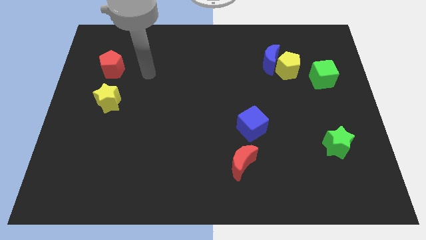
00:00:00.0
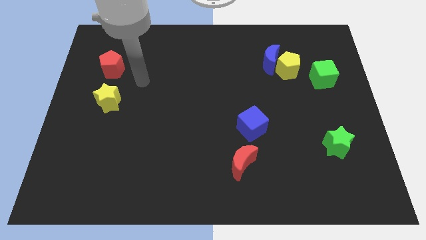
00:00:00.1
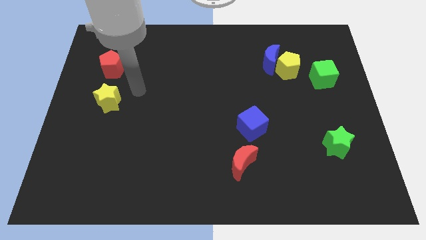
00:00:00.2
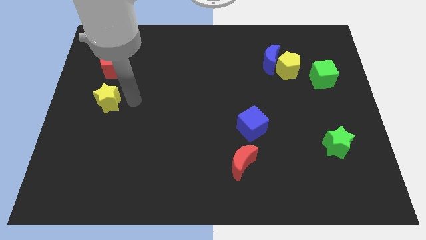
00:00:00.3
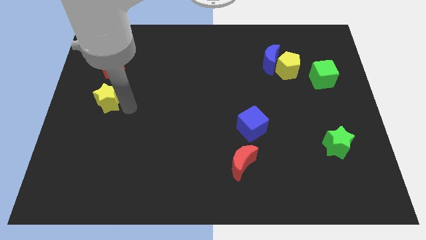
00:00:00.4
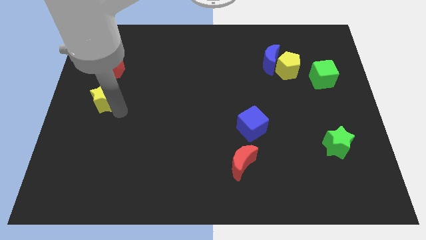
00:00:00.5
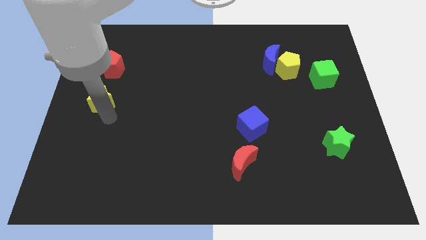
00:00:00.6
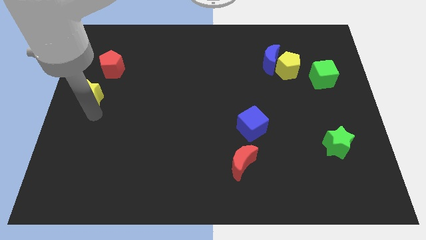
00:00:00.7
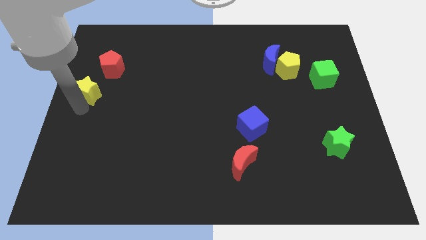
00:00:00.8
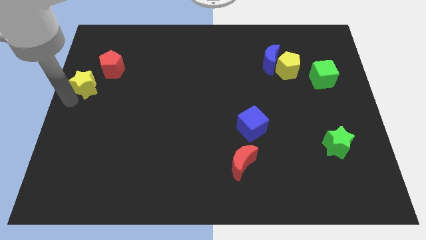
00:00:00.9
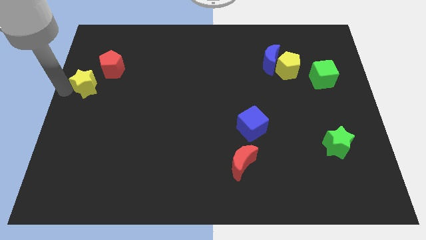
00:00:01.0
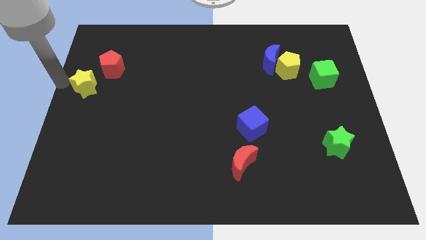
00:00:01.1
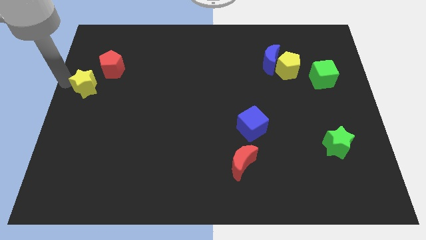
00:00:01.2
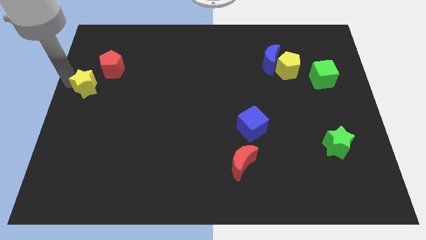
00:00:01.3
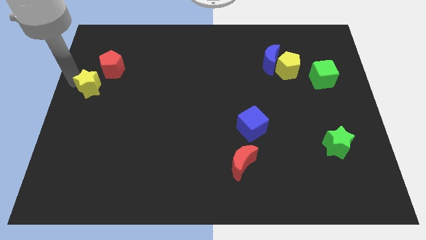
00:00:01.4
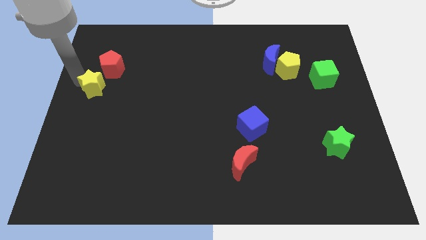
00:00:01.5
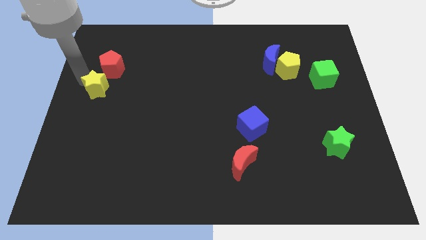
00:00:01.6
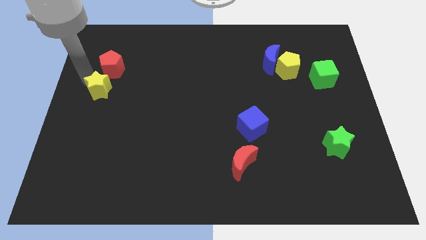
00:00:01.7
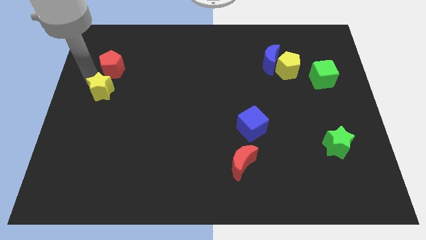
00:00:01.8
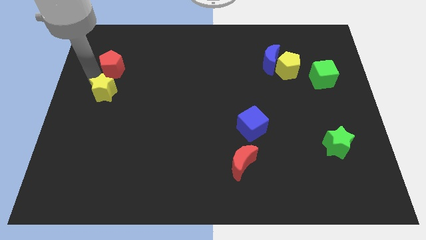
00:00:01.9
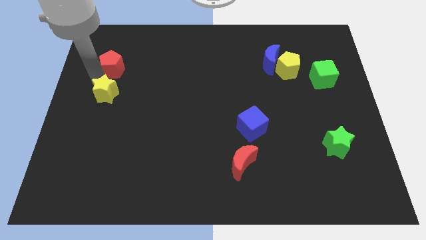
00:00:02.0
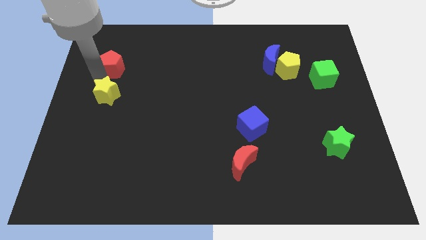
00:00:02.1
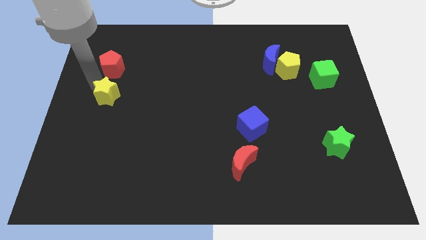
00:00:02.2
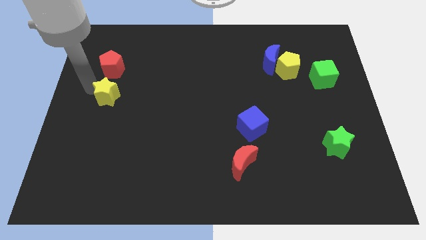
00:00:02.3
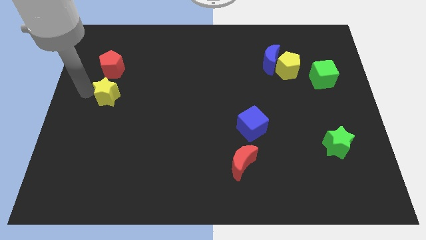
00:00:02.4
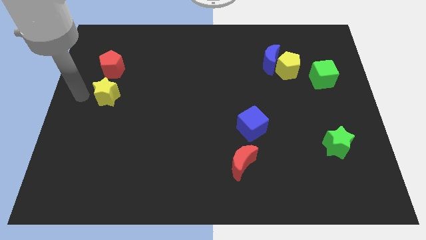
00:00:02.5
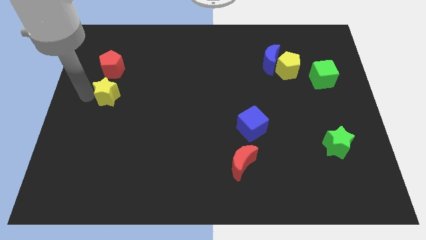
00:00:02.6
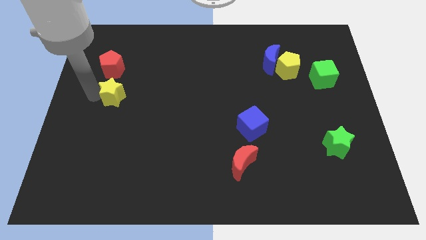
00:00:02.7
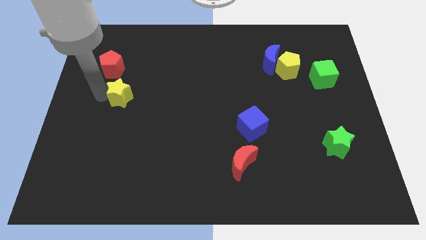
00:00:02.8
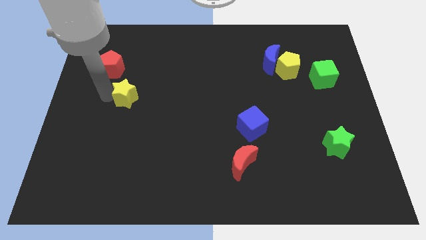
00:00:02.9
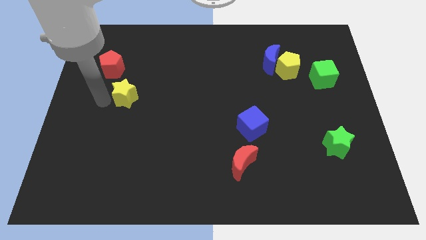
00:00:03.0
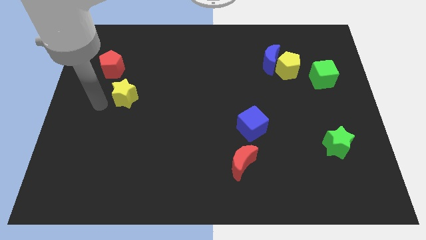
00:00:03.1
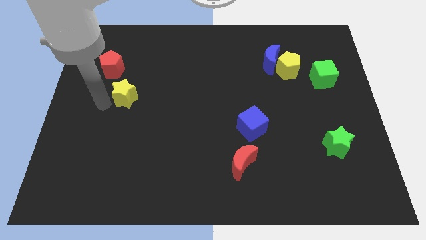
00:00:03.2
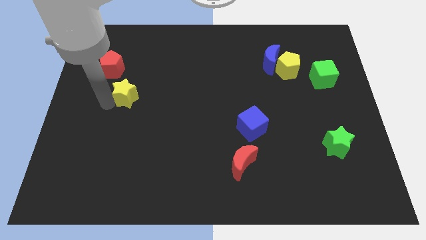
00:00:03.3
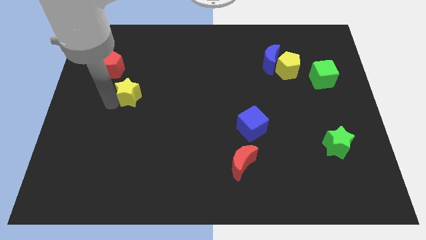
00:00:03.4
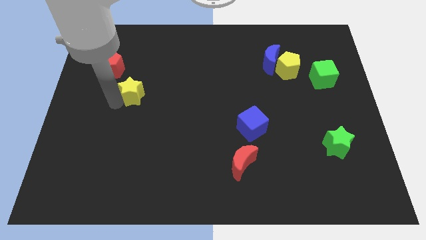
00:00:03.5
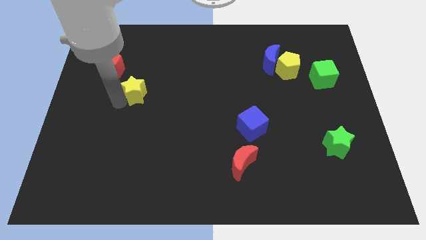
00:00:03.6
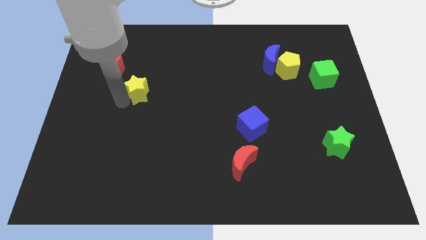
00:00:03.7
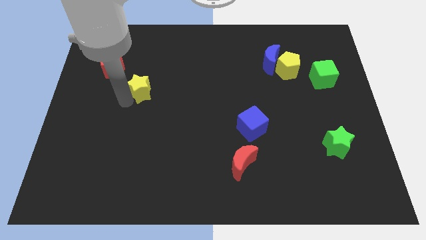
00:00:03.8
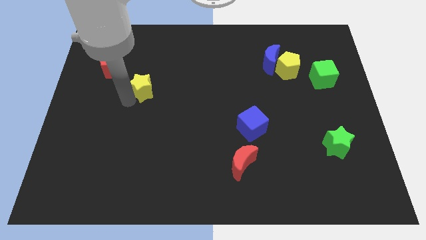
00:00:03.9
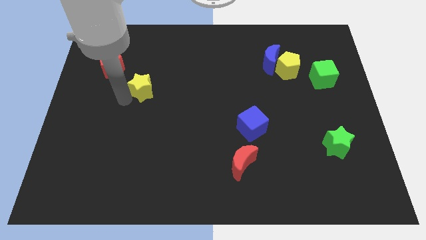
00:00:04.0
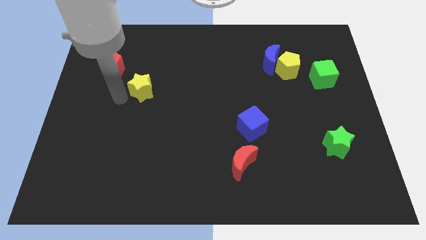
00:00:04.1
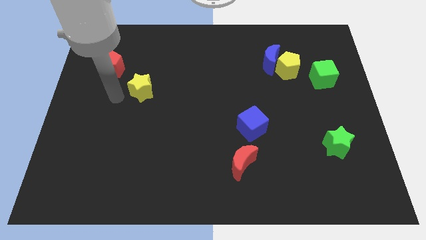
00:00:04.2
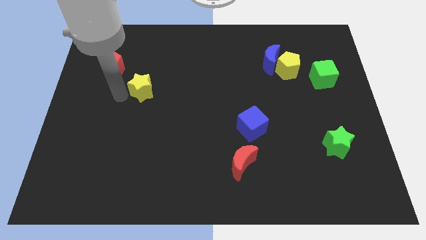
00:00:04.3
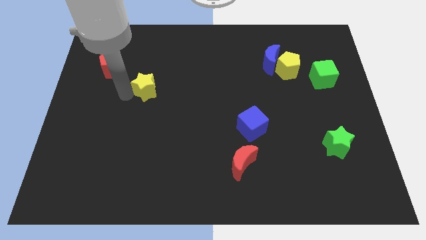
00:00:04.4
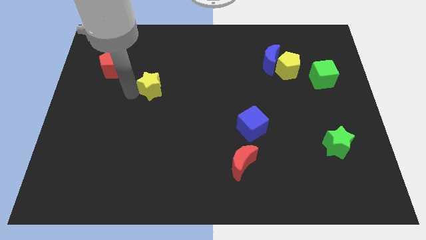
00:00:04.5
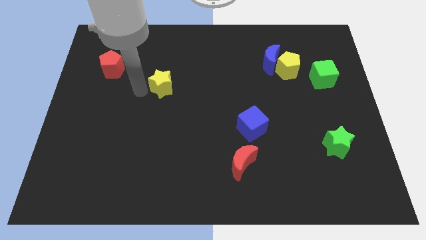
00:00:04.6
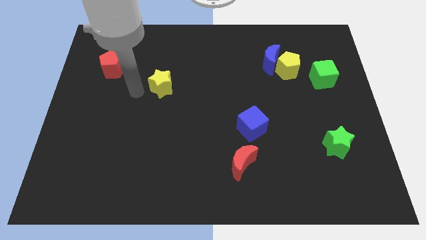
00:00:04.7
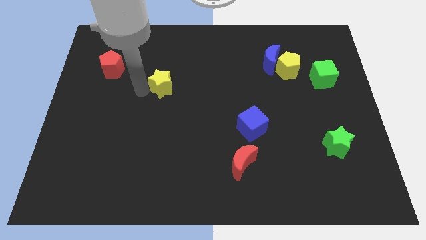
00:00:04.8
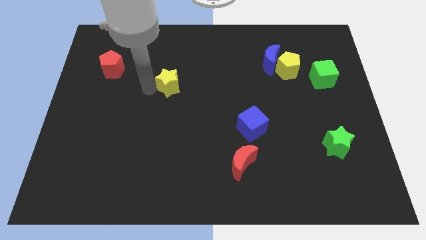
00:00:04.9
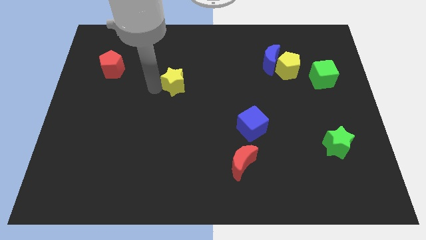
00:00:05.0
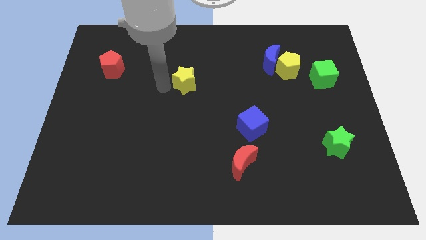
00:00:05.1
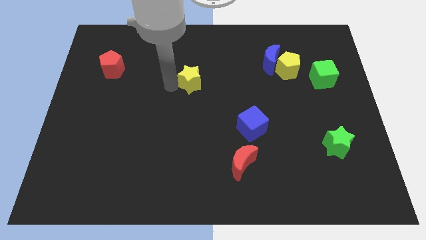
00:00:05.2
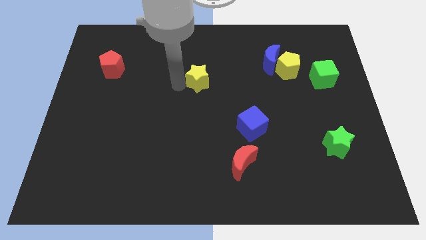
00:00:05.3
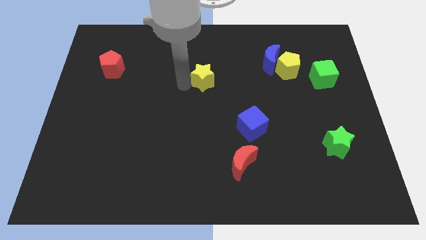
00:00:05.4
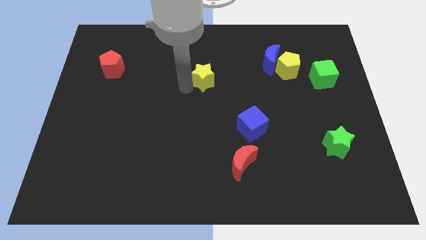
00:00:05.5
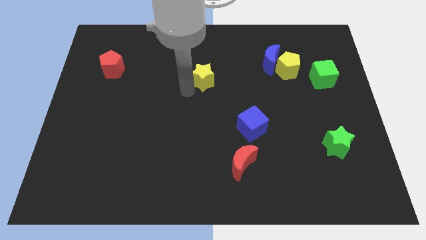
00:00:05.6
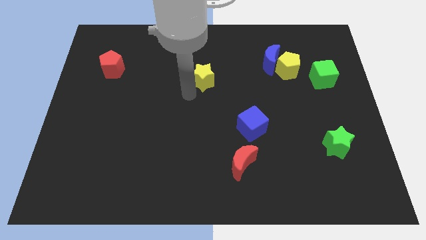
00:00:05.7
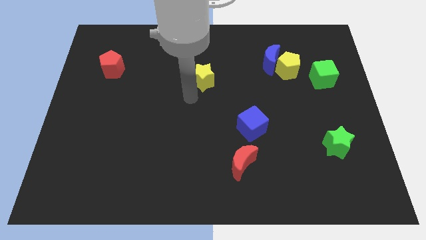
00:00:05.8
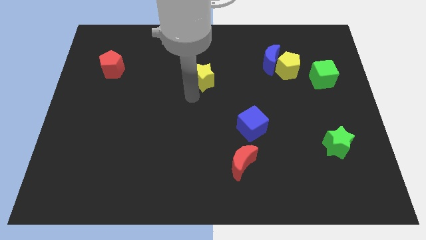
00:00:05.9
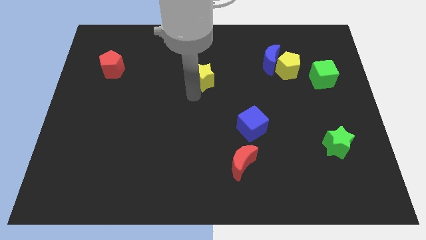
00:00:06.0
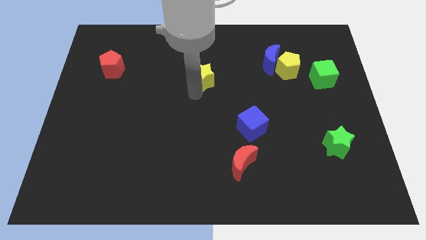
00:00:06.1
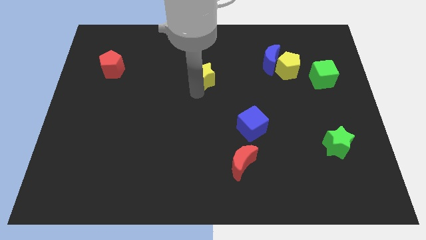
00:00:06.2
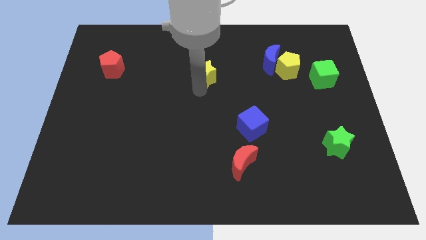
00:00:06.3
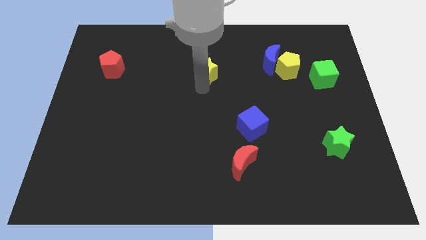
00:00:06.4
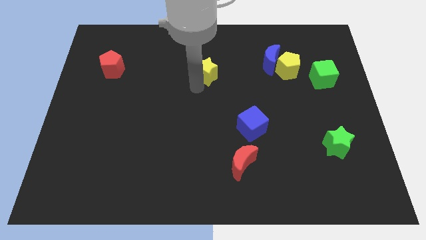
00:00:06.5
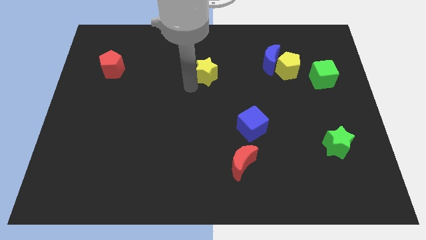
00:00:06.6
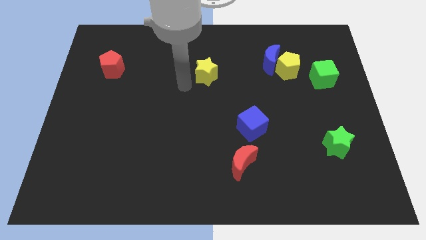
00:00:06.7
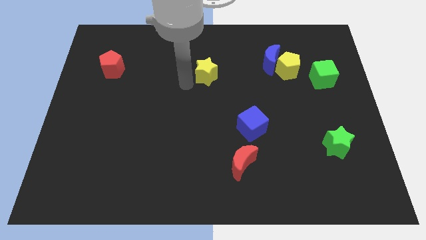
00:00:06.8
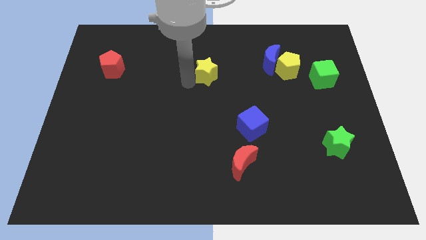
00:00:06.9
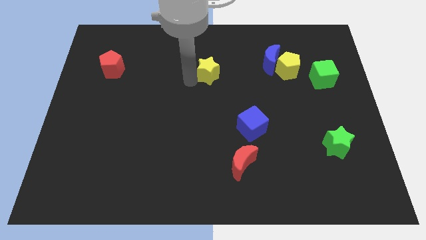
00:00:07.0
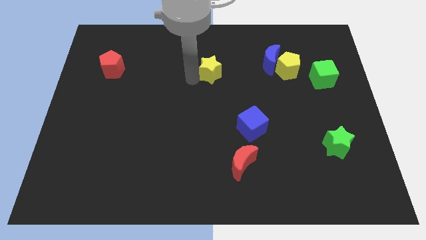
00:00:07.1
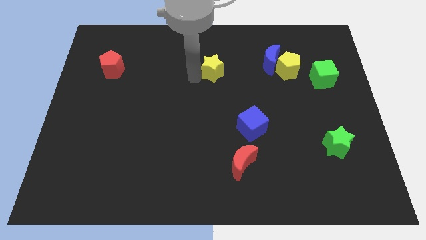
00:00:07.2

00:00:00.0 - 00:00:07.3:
slide the yellow star just left of the blue moon
